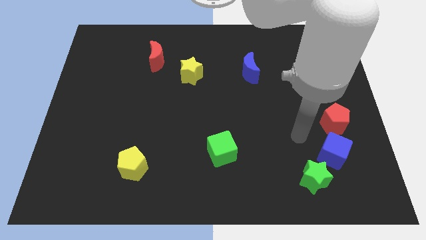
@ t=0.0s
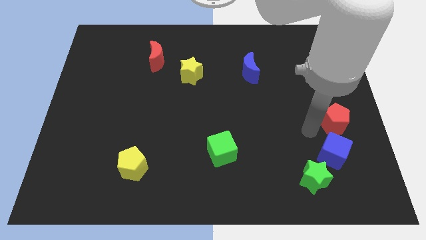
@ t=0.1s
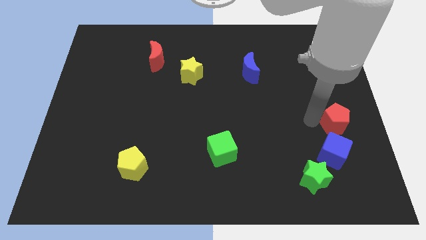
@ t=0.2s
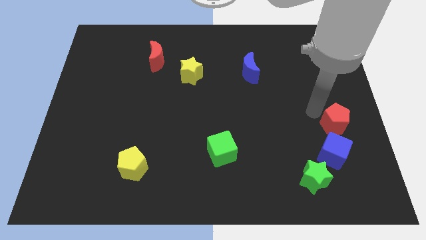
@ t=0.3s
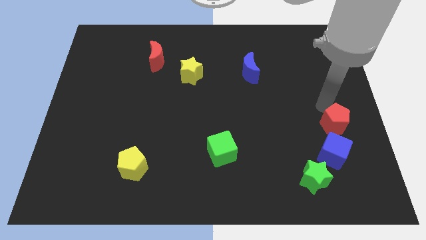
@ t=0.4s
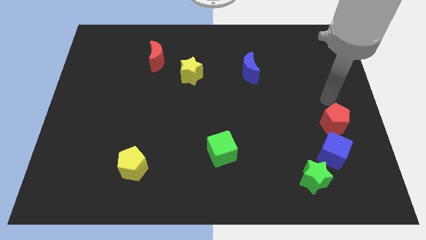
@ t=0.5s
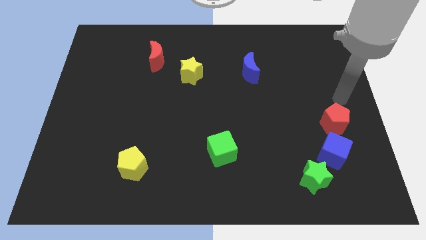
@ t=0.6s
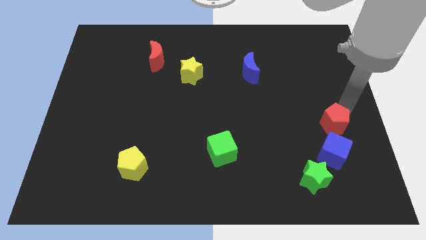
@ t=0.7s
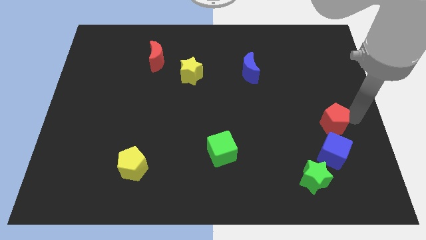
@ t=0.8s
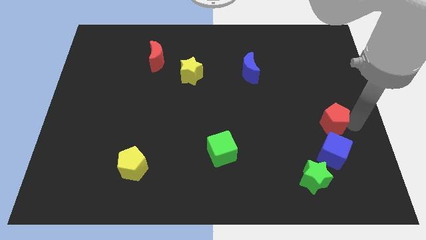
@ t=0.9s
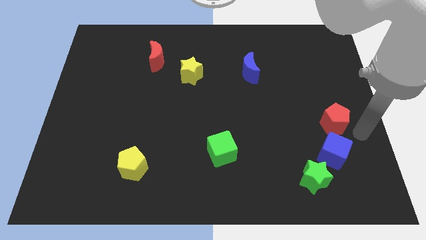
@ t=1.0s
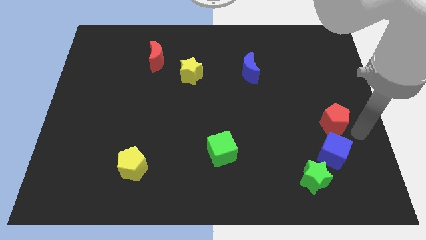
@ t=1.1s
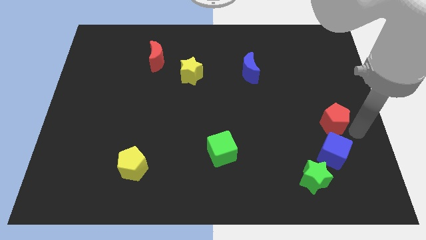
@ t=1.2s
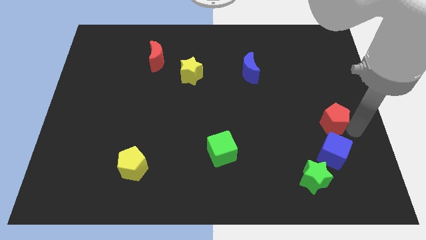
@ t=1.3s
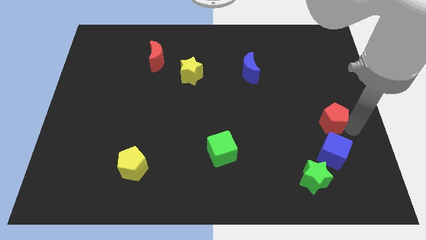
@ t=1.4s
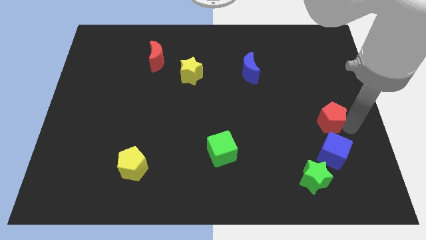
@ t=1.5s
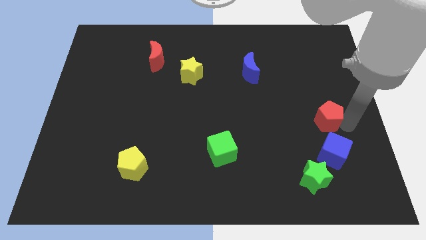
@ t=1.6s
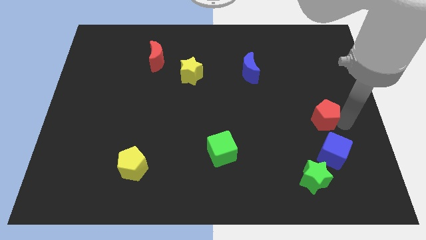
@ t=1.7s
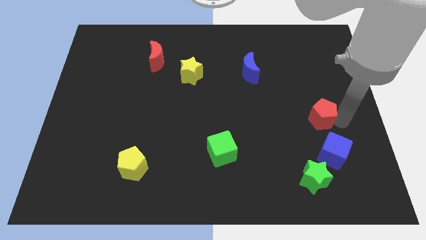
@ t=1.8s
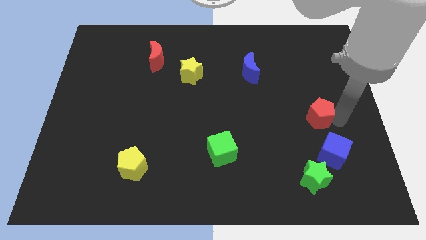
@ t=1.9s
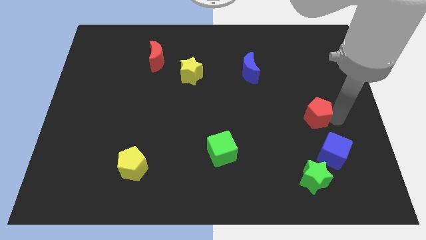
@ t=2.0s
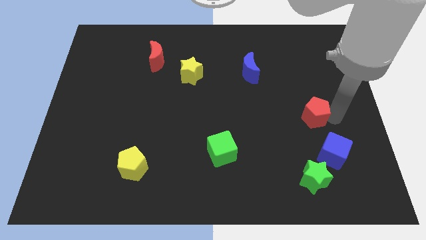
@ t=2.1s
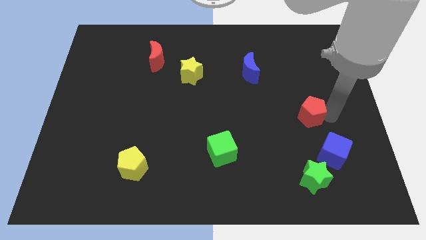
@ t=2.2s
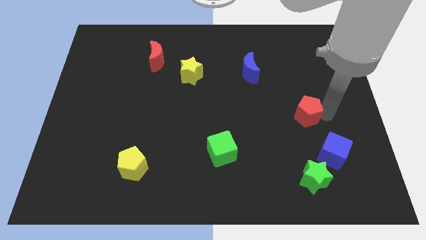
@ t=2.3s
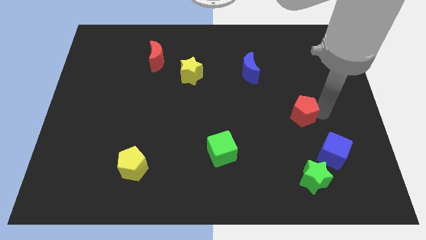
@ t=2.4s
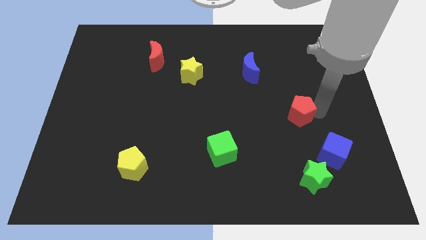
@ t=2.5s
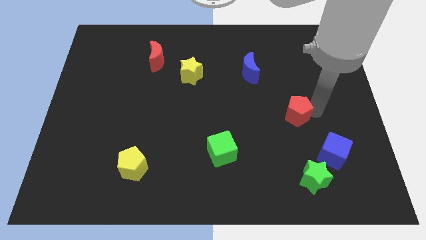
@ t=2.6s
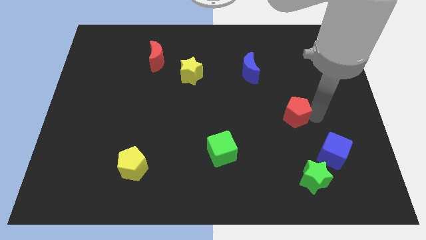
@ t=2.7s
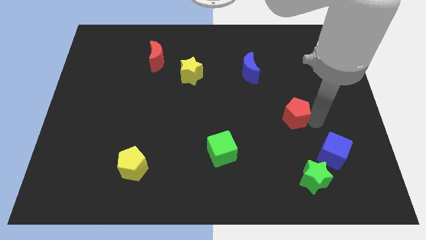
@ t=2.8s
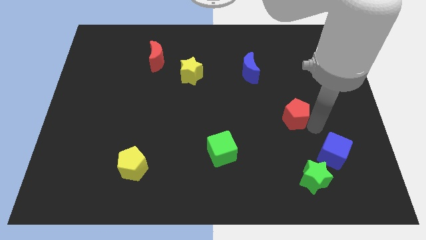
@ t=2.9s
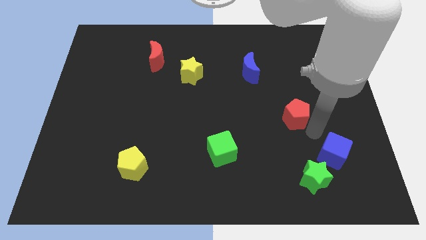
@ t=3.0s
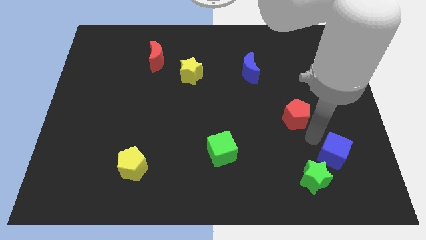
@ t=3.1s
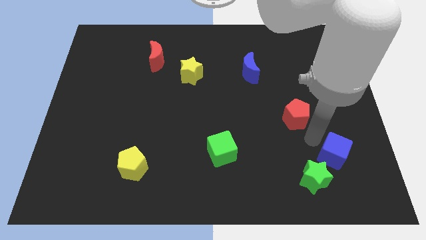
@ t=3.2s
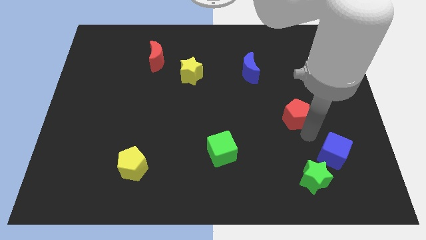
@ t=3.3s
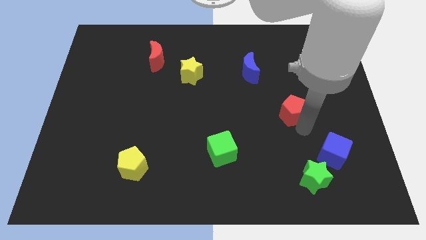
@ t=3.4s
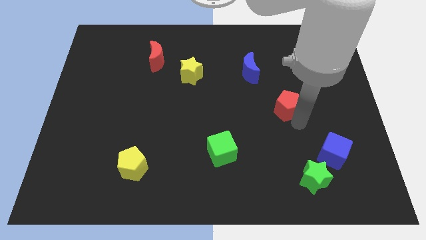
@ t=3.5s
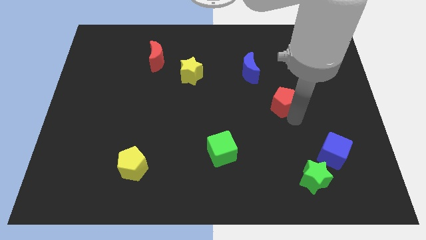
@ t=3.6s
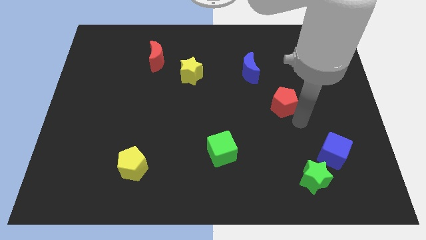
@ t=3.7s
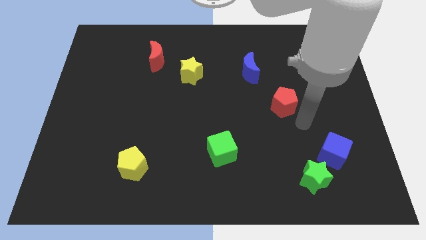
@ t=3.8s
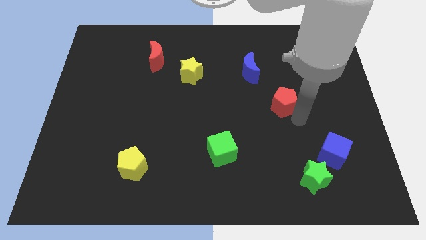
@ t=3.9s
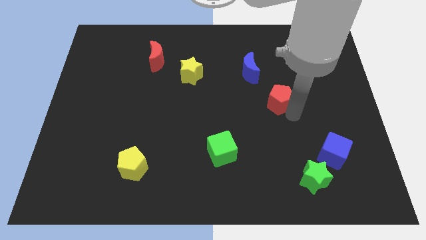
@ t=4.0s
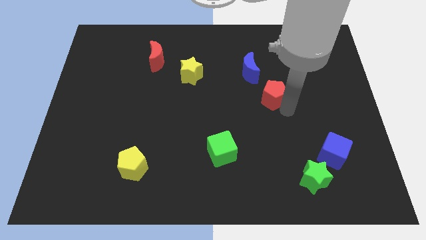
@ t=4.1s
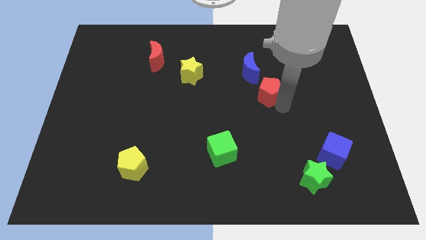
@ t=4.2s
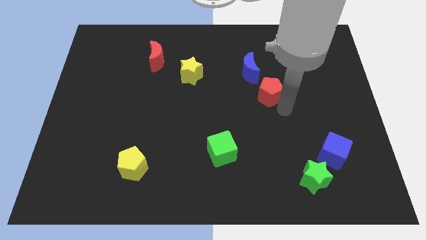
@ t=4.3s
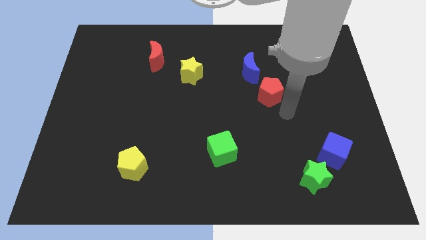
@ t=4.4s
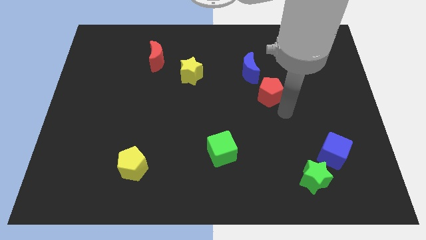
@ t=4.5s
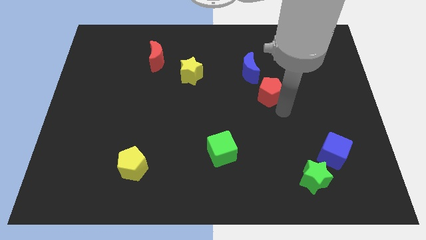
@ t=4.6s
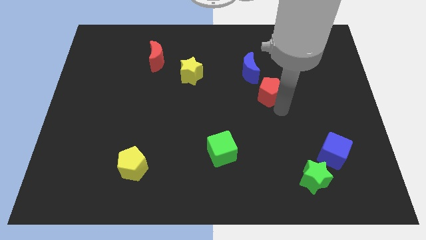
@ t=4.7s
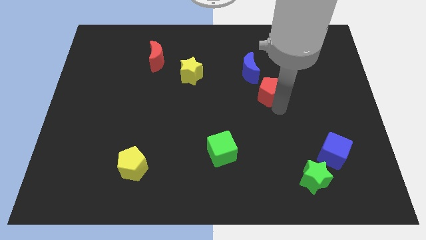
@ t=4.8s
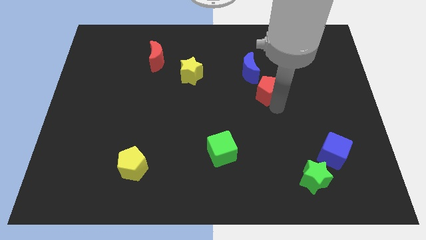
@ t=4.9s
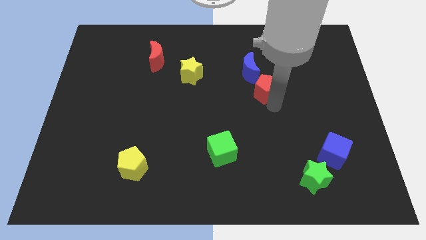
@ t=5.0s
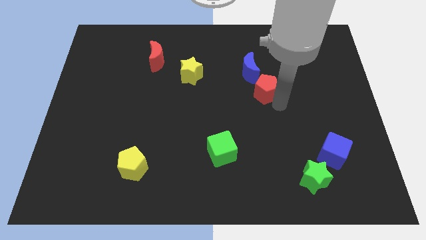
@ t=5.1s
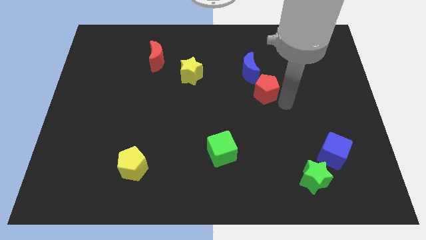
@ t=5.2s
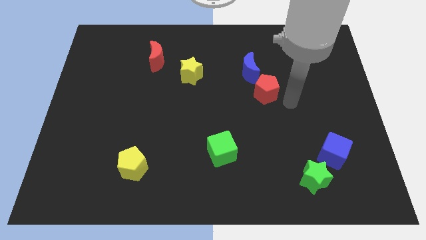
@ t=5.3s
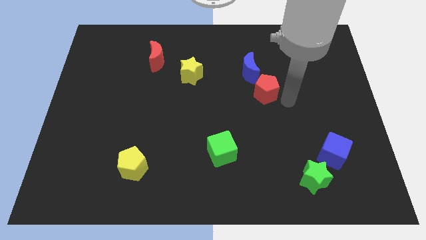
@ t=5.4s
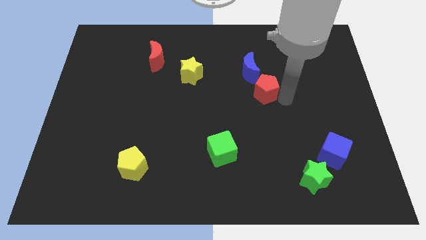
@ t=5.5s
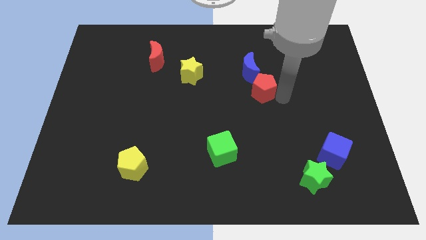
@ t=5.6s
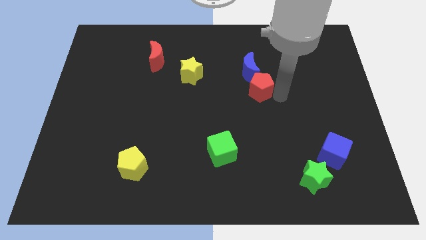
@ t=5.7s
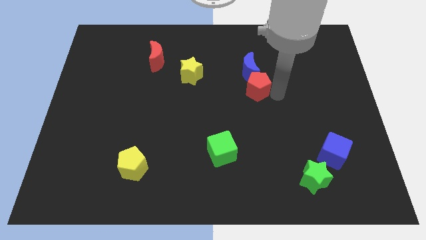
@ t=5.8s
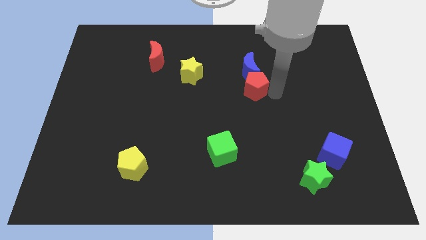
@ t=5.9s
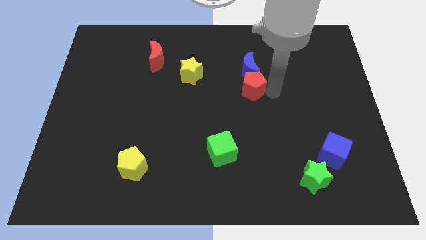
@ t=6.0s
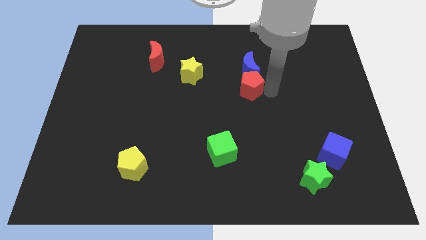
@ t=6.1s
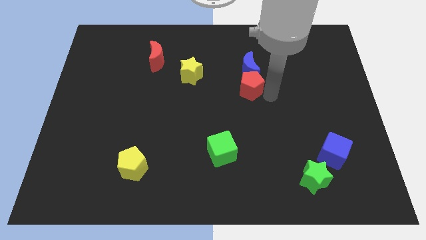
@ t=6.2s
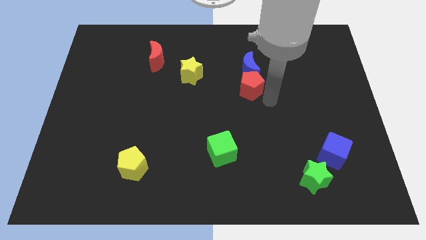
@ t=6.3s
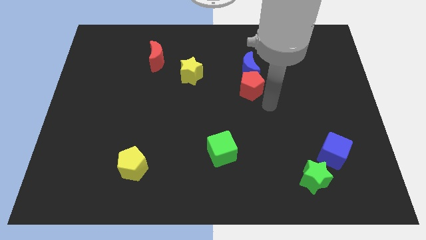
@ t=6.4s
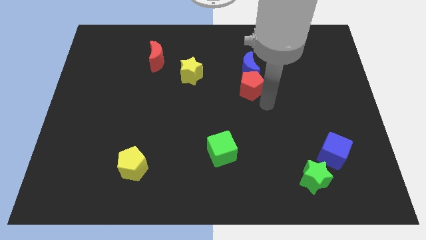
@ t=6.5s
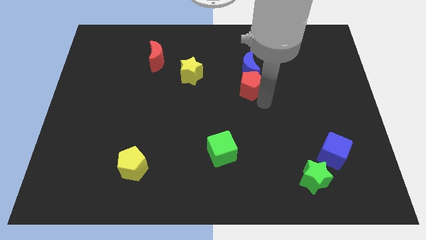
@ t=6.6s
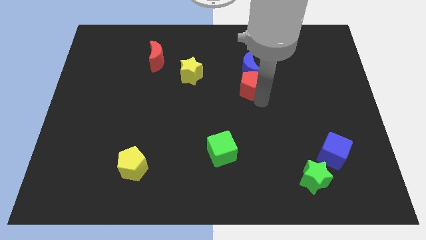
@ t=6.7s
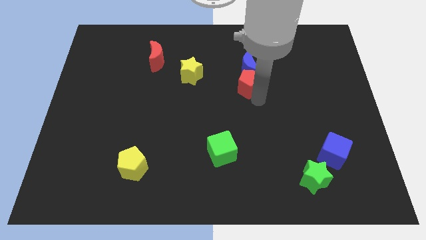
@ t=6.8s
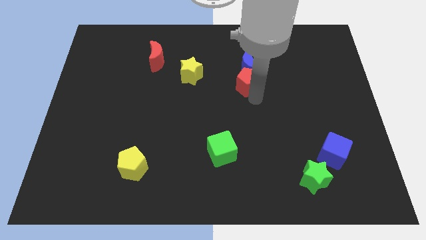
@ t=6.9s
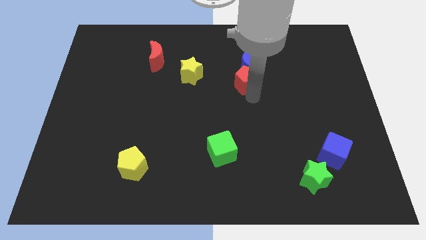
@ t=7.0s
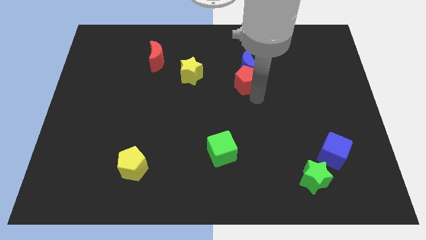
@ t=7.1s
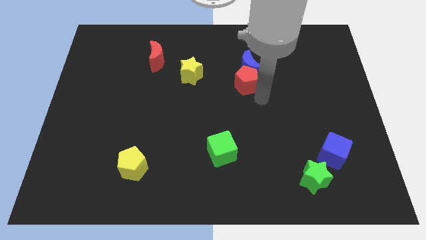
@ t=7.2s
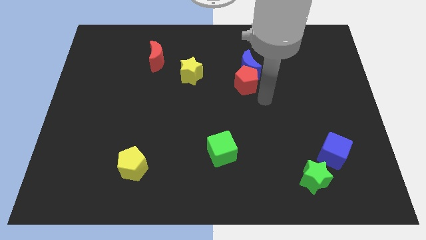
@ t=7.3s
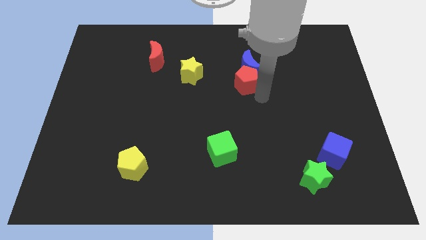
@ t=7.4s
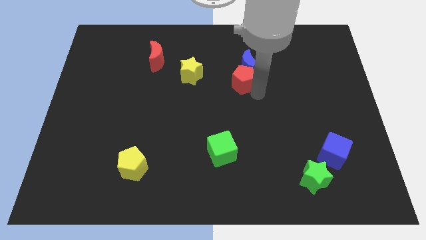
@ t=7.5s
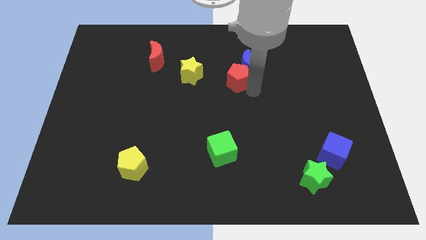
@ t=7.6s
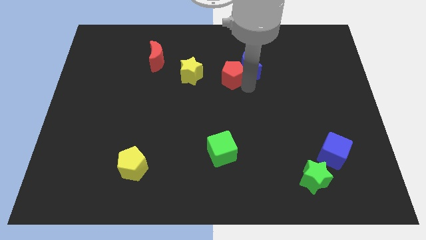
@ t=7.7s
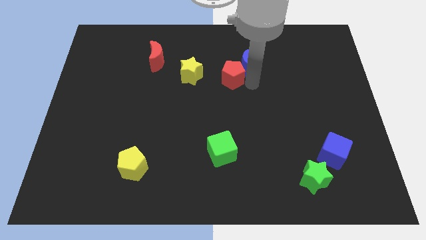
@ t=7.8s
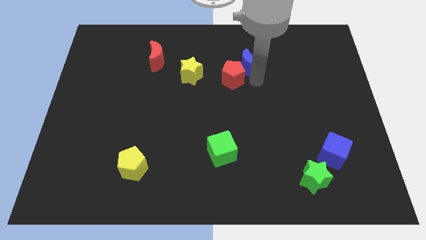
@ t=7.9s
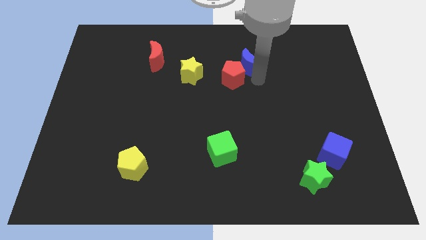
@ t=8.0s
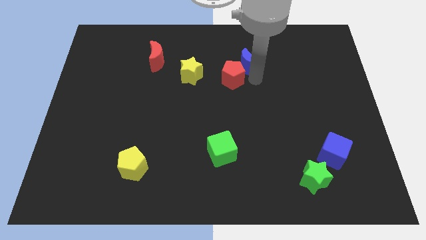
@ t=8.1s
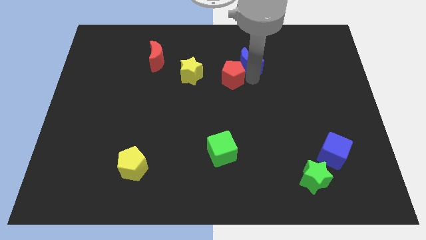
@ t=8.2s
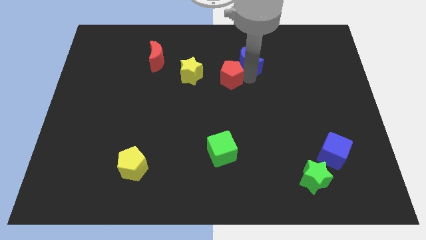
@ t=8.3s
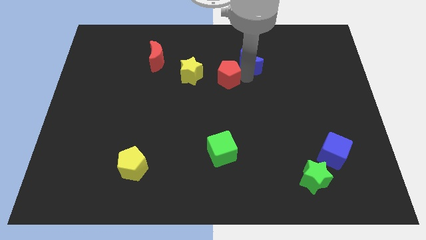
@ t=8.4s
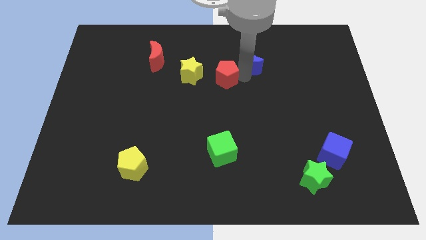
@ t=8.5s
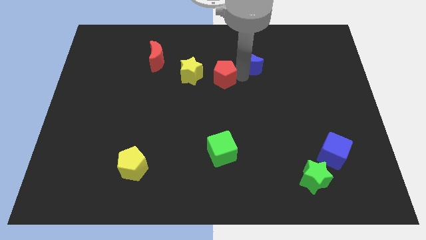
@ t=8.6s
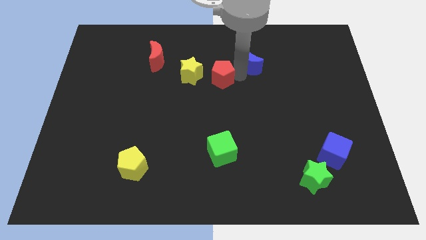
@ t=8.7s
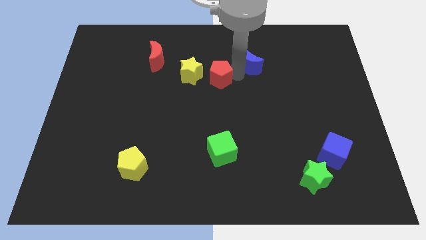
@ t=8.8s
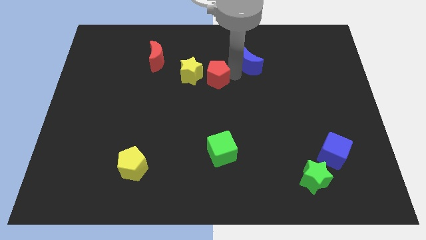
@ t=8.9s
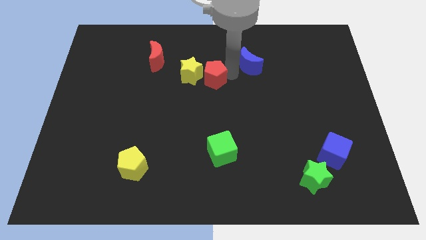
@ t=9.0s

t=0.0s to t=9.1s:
move the red pentagon to the yellow star
